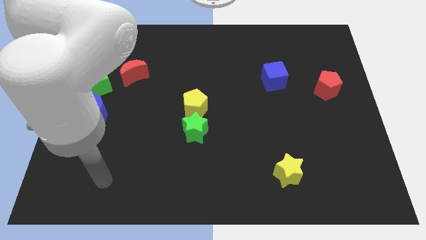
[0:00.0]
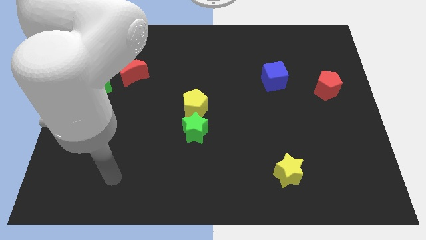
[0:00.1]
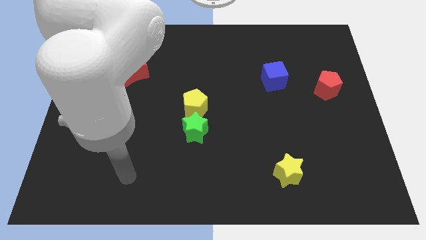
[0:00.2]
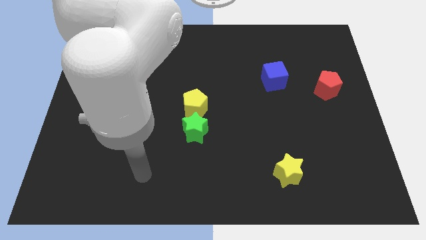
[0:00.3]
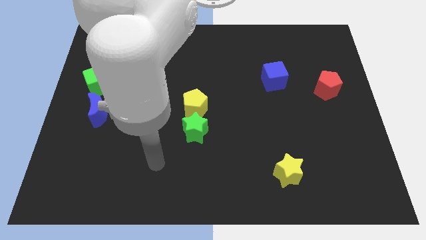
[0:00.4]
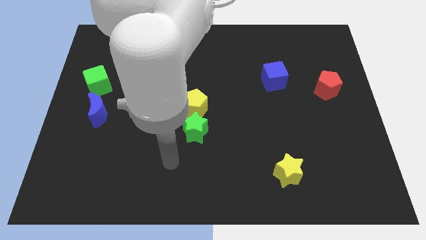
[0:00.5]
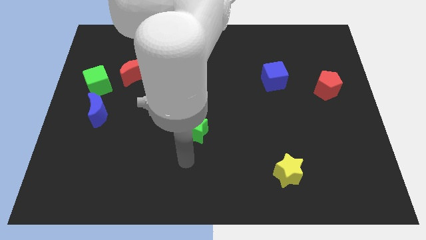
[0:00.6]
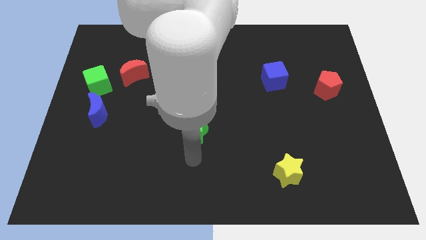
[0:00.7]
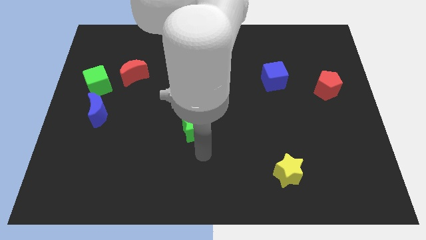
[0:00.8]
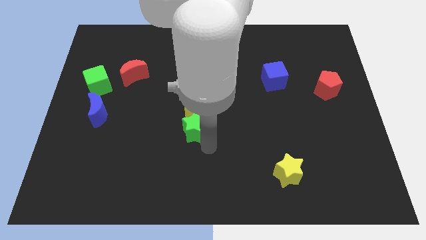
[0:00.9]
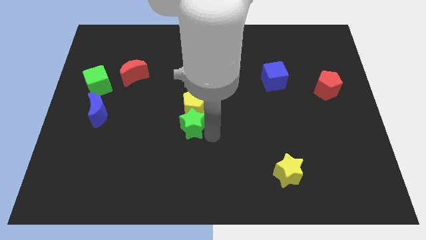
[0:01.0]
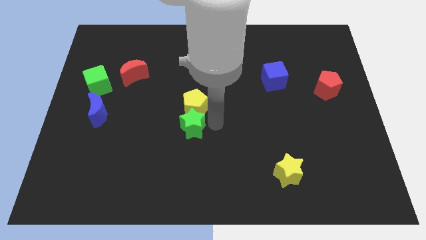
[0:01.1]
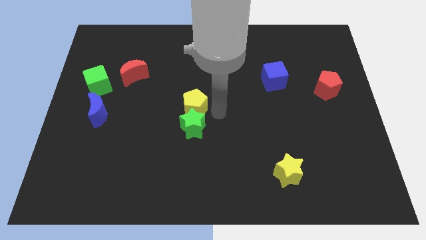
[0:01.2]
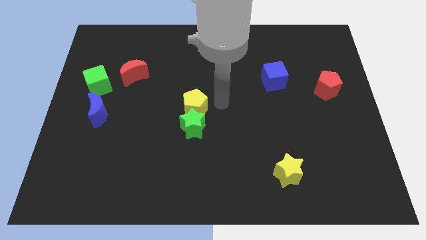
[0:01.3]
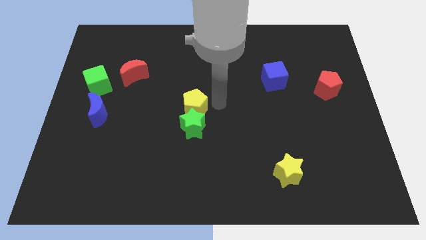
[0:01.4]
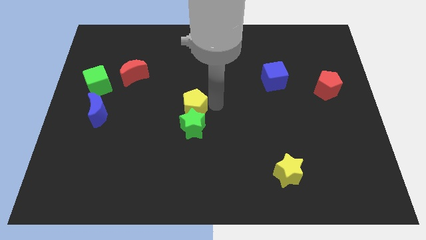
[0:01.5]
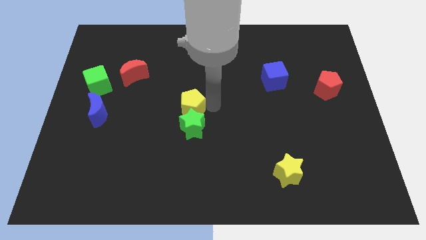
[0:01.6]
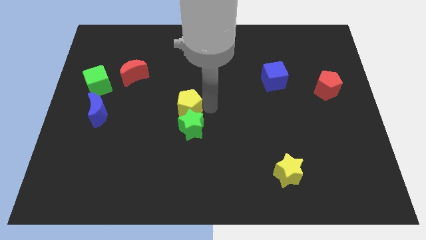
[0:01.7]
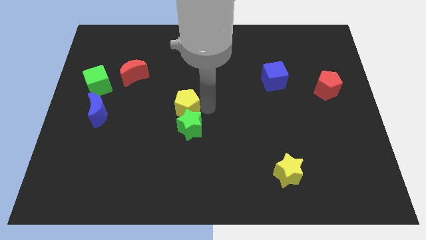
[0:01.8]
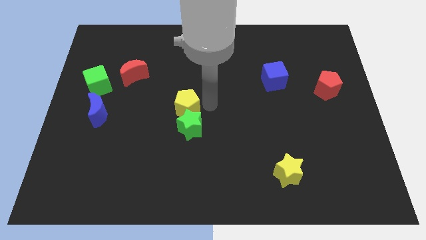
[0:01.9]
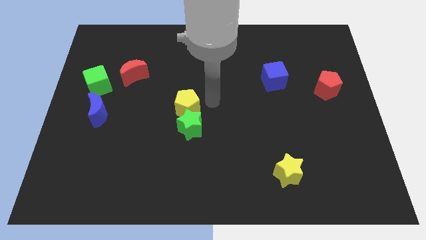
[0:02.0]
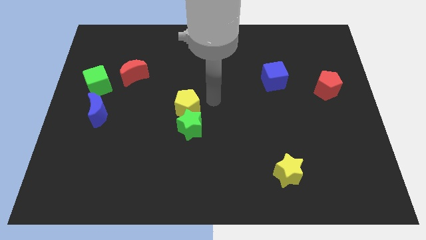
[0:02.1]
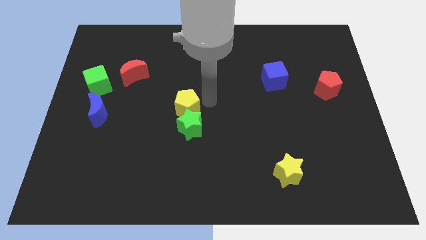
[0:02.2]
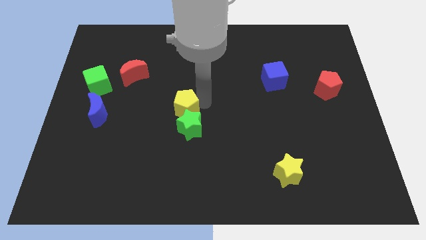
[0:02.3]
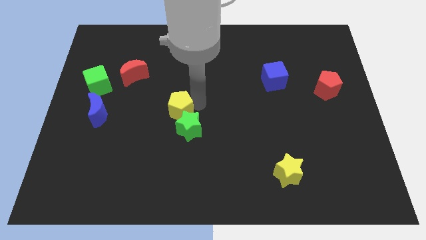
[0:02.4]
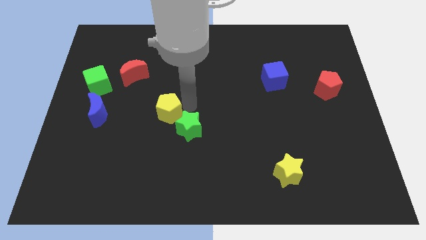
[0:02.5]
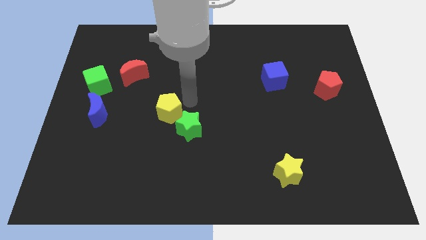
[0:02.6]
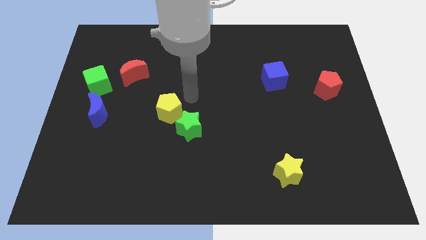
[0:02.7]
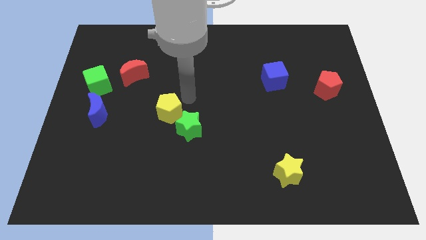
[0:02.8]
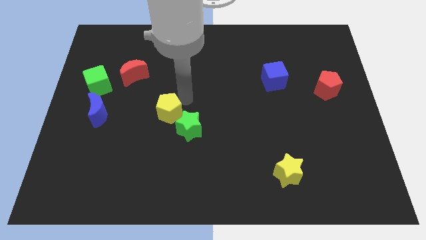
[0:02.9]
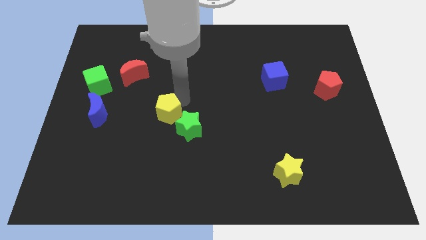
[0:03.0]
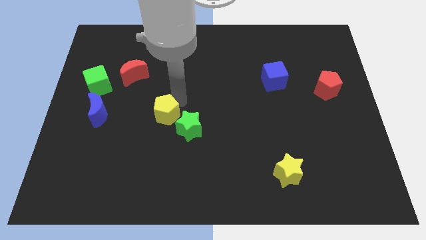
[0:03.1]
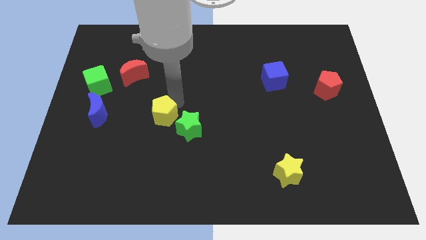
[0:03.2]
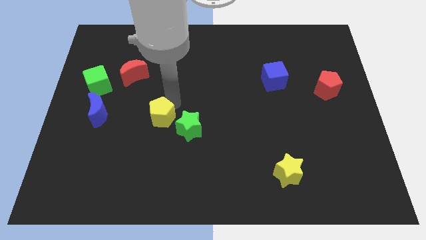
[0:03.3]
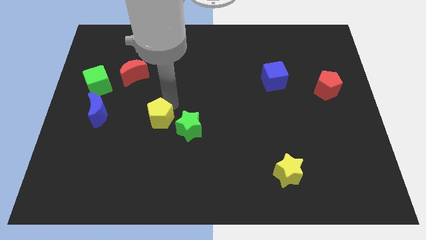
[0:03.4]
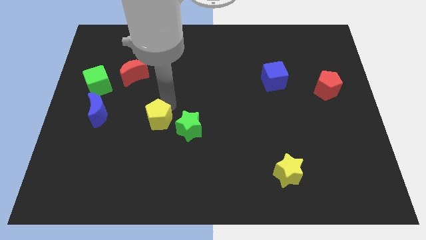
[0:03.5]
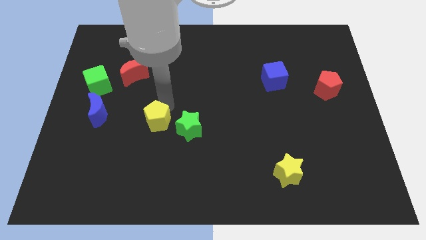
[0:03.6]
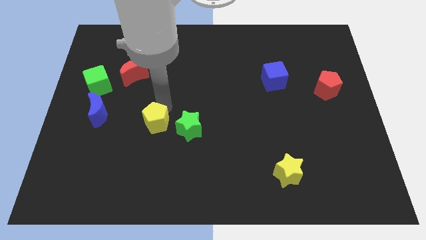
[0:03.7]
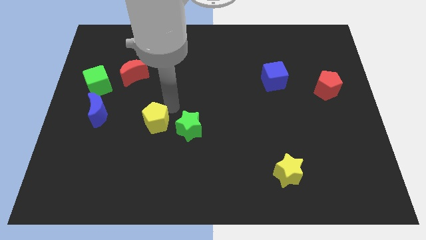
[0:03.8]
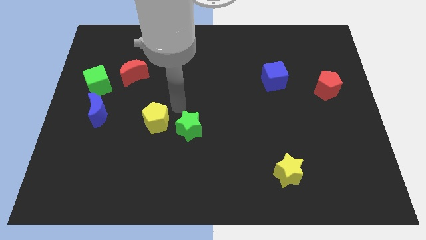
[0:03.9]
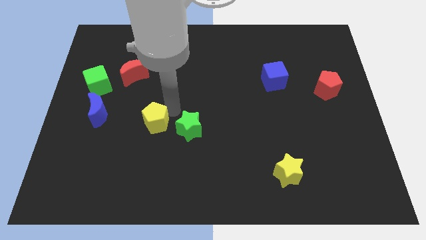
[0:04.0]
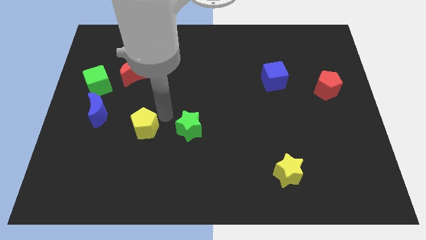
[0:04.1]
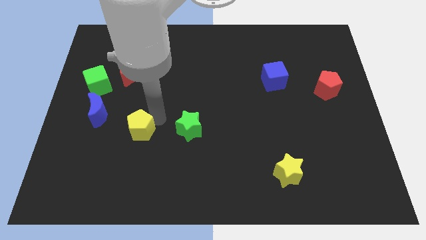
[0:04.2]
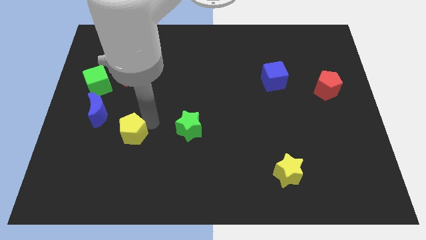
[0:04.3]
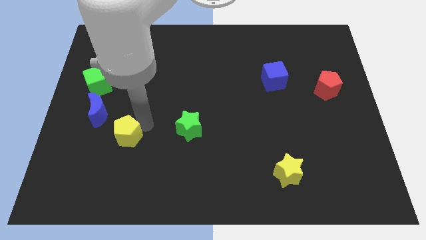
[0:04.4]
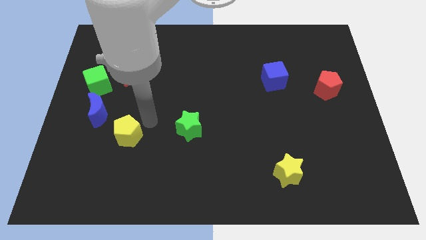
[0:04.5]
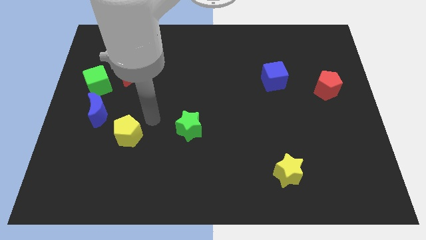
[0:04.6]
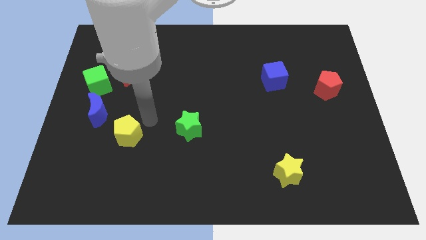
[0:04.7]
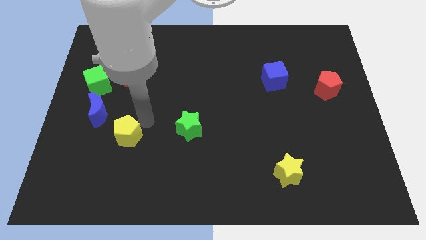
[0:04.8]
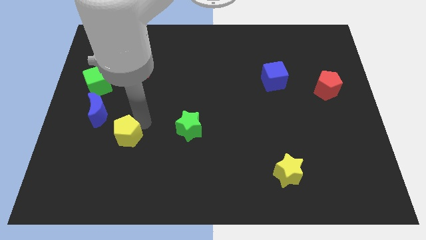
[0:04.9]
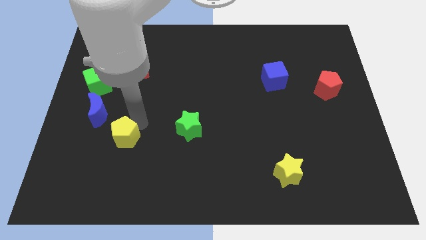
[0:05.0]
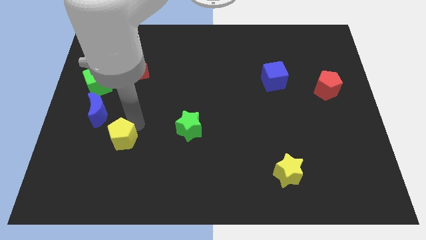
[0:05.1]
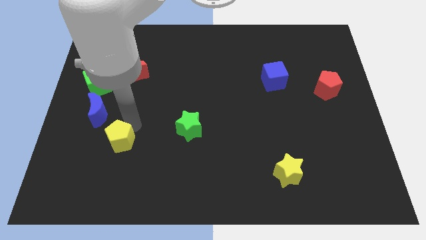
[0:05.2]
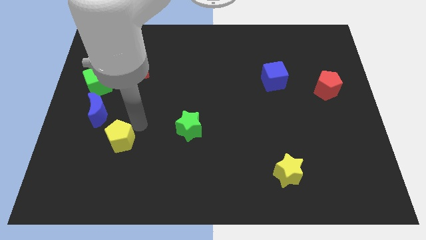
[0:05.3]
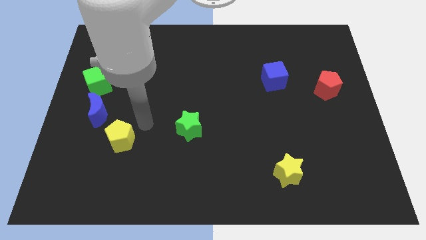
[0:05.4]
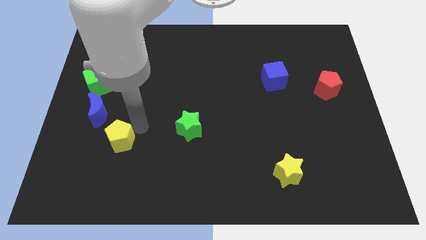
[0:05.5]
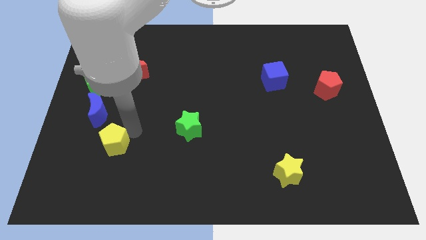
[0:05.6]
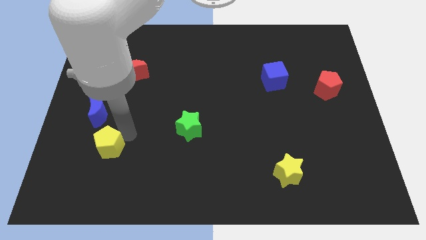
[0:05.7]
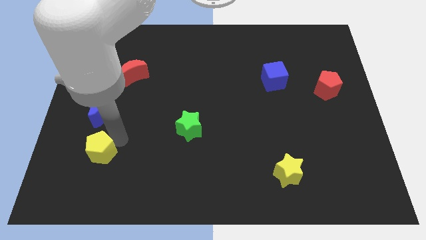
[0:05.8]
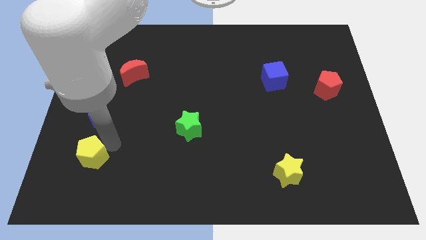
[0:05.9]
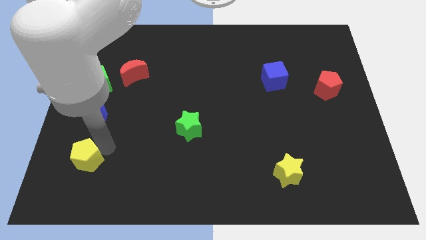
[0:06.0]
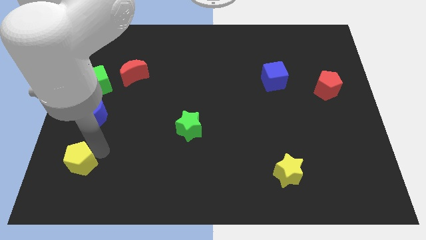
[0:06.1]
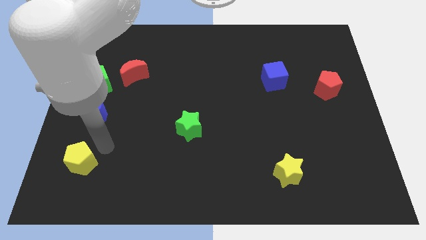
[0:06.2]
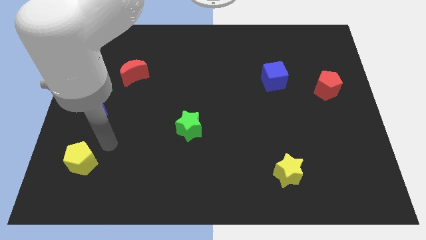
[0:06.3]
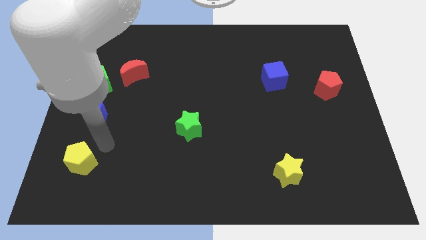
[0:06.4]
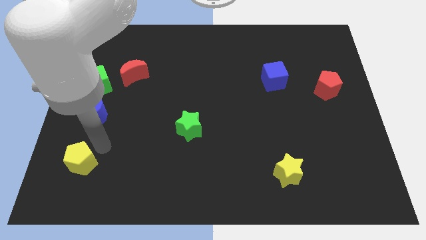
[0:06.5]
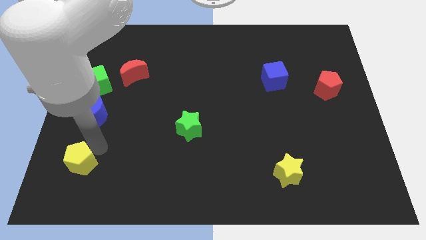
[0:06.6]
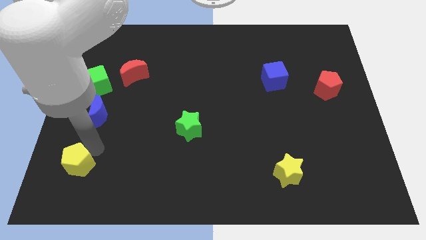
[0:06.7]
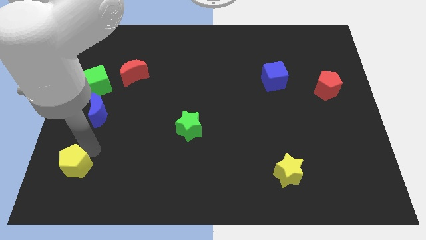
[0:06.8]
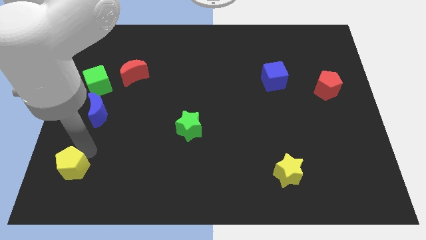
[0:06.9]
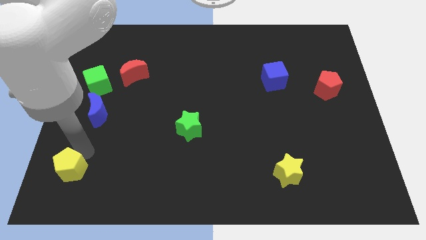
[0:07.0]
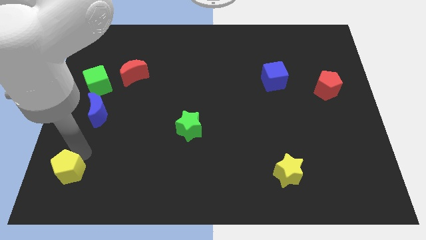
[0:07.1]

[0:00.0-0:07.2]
push the yellow pentagon to the bottom left of the board
